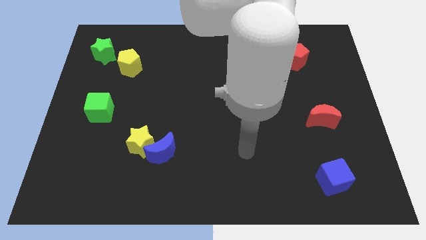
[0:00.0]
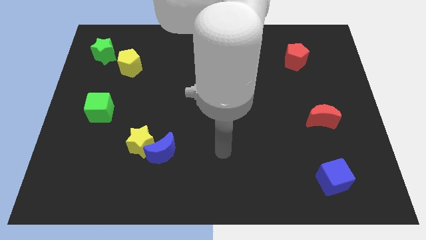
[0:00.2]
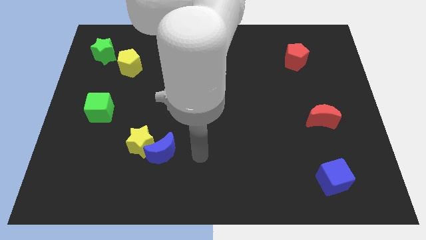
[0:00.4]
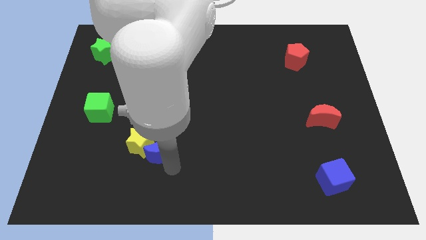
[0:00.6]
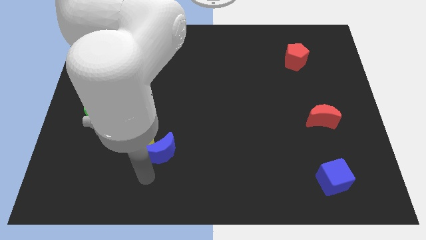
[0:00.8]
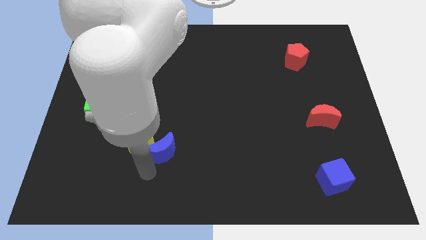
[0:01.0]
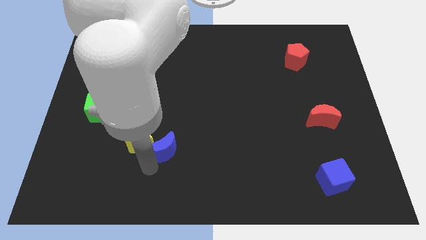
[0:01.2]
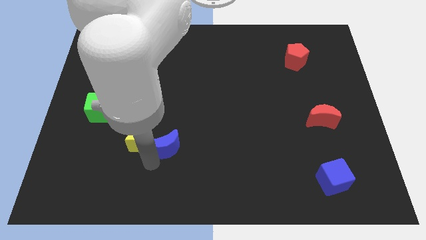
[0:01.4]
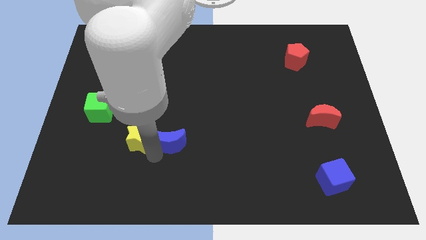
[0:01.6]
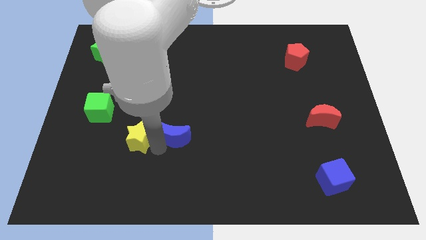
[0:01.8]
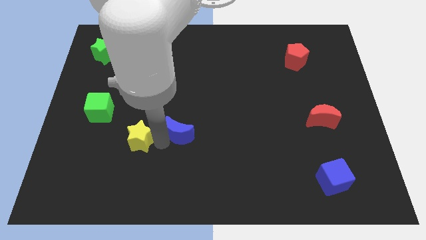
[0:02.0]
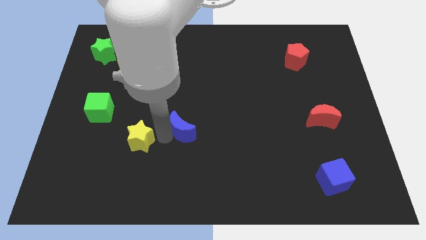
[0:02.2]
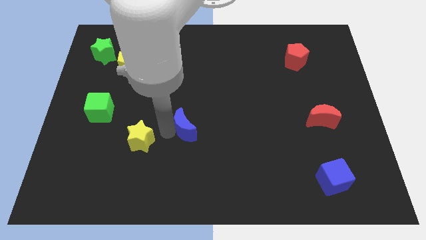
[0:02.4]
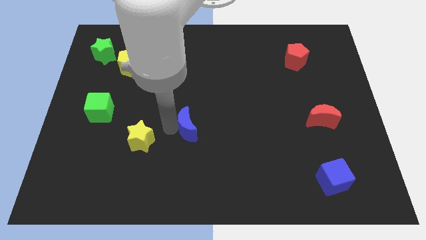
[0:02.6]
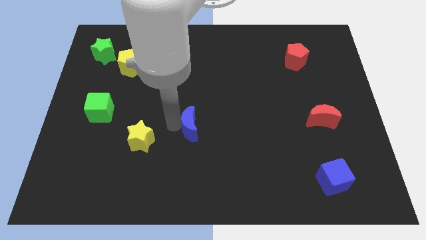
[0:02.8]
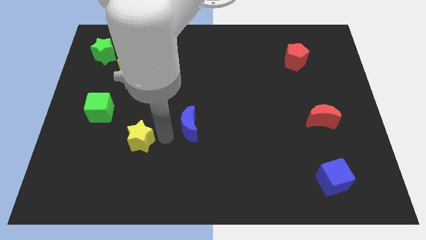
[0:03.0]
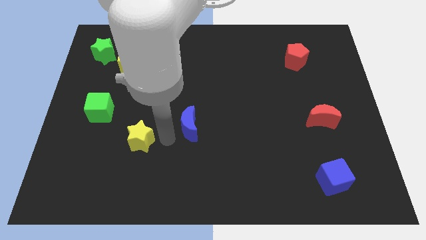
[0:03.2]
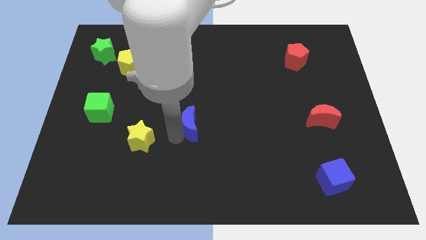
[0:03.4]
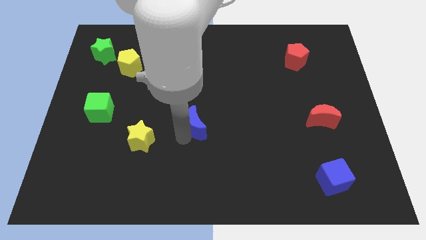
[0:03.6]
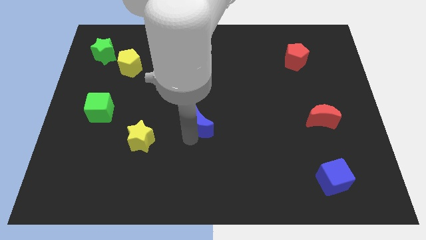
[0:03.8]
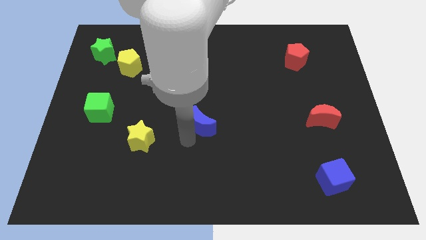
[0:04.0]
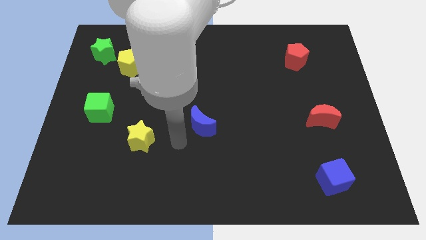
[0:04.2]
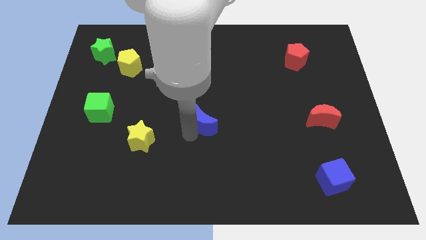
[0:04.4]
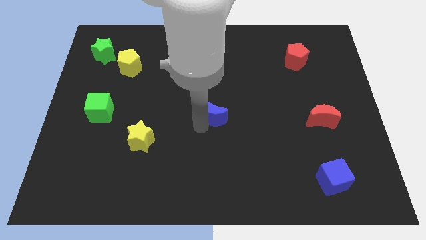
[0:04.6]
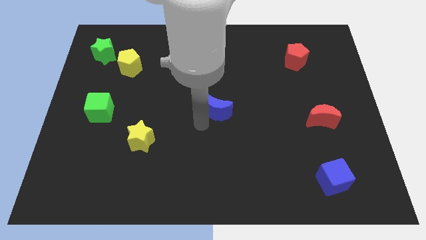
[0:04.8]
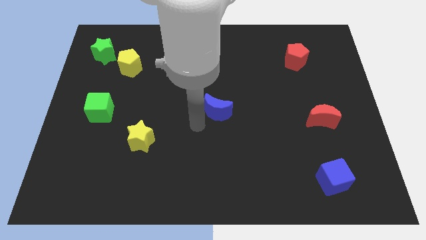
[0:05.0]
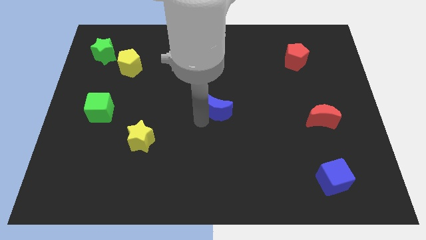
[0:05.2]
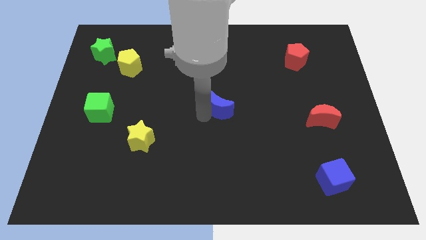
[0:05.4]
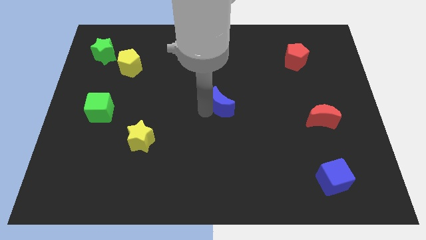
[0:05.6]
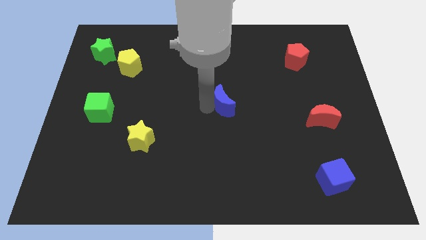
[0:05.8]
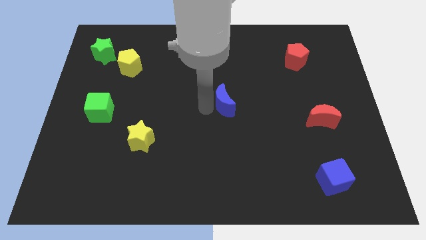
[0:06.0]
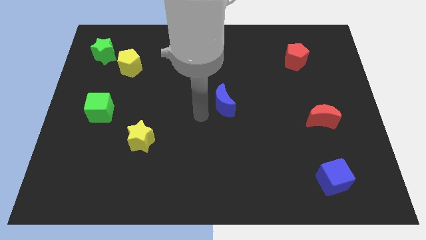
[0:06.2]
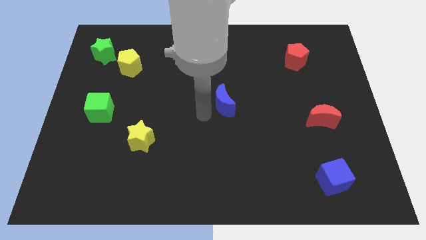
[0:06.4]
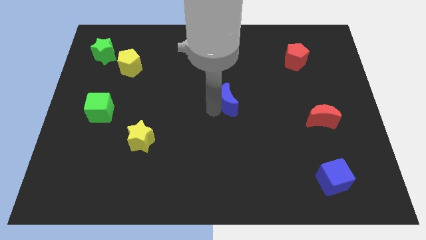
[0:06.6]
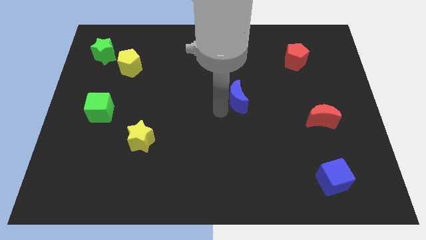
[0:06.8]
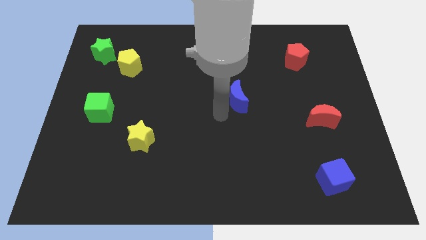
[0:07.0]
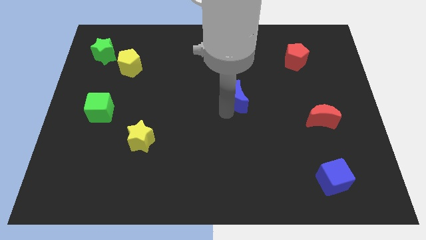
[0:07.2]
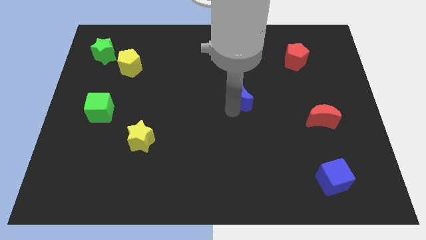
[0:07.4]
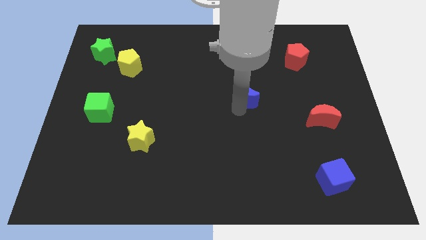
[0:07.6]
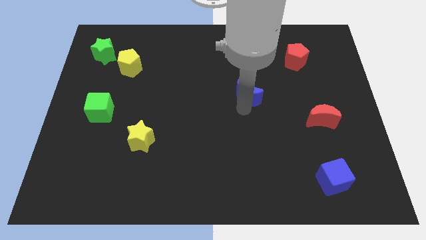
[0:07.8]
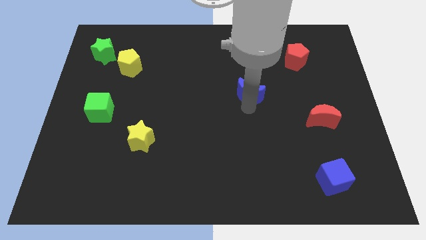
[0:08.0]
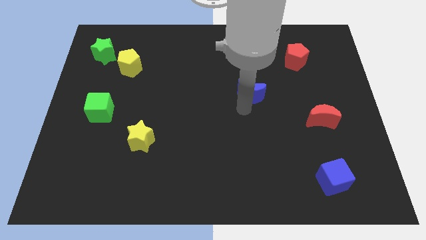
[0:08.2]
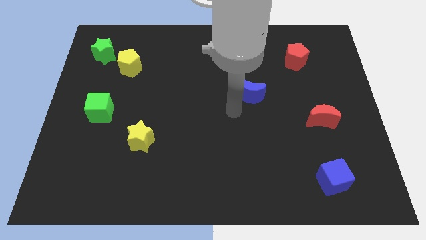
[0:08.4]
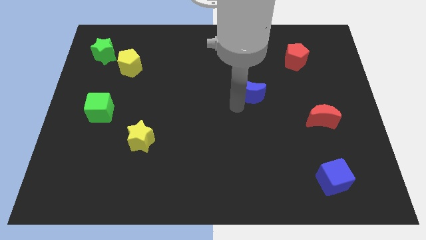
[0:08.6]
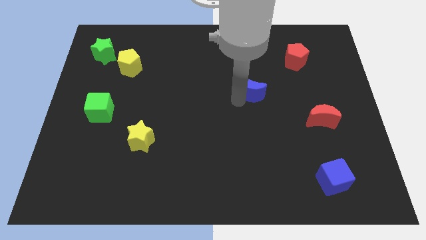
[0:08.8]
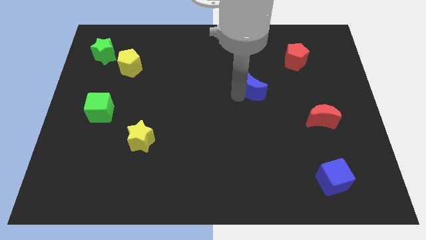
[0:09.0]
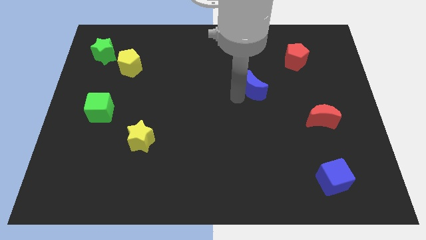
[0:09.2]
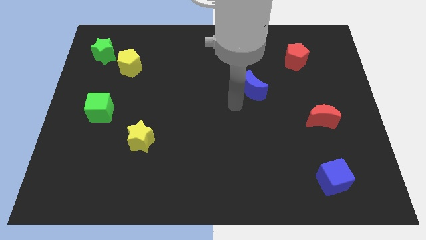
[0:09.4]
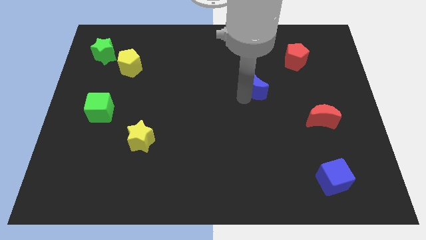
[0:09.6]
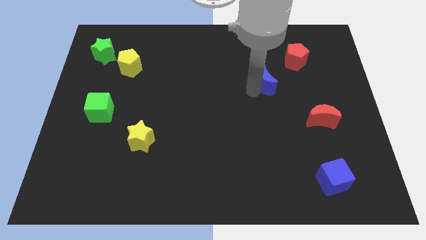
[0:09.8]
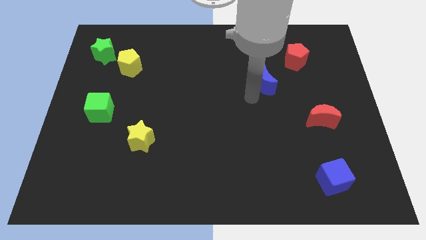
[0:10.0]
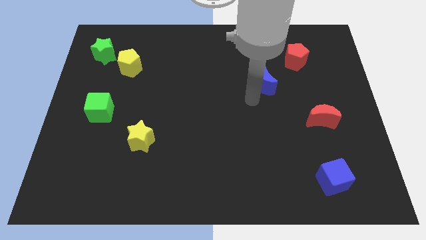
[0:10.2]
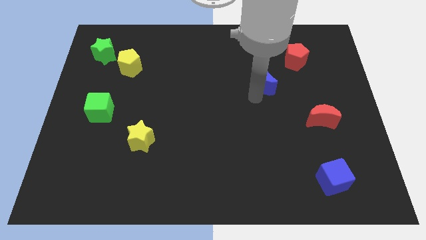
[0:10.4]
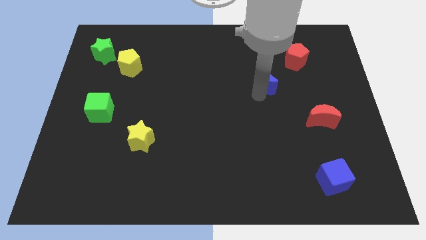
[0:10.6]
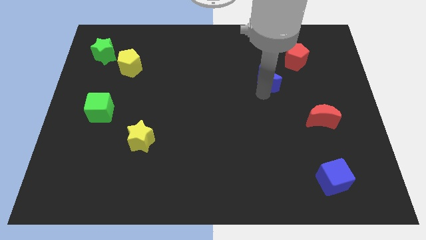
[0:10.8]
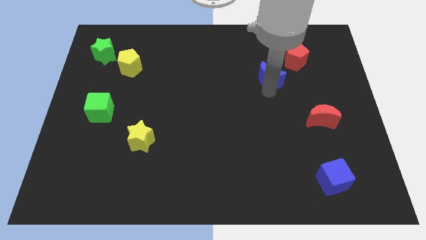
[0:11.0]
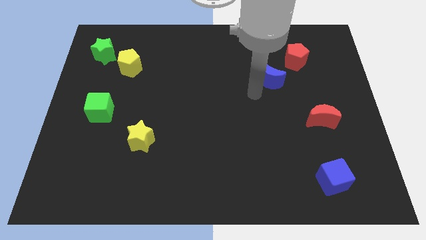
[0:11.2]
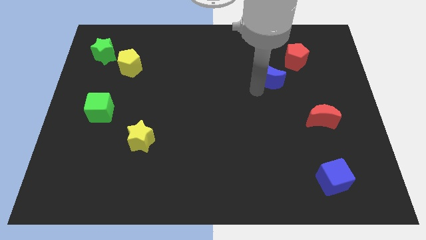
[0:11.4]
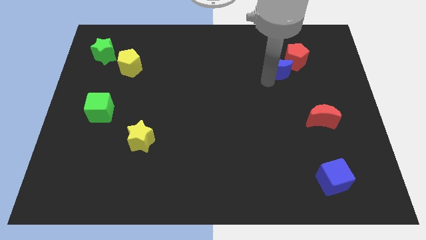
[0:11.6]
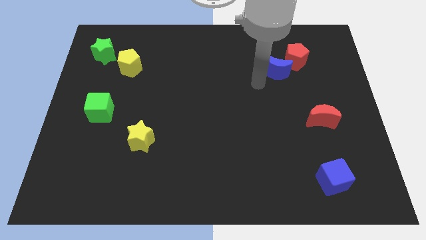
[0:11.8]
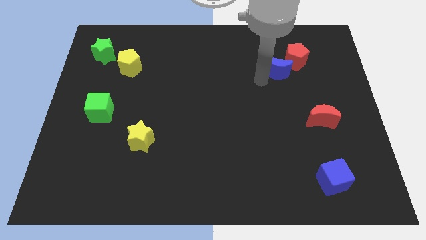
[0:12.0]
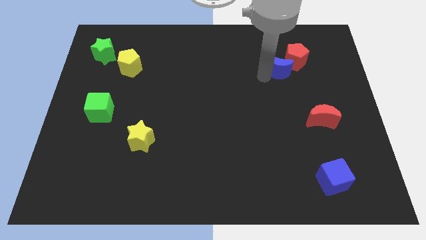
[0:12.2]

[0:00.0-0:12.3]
move the blue moon close to the red pentagon
